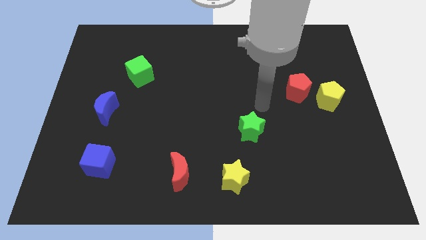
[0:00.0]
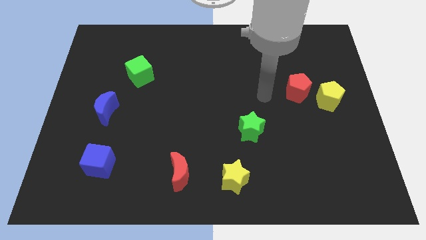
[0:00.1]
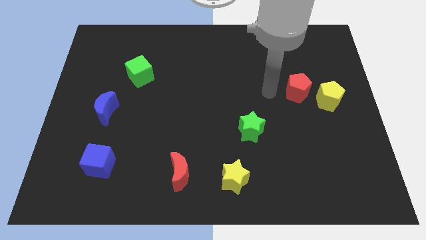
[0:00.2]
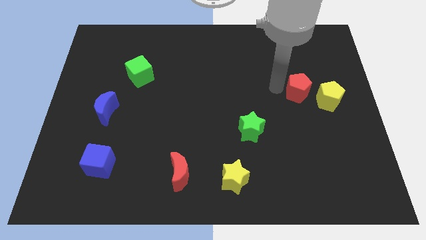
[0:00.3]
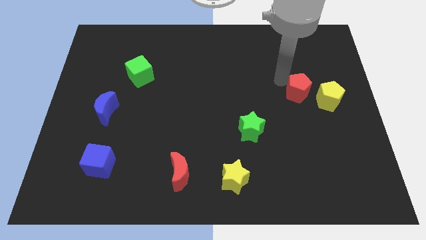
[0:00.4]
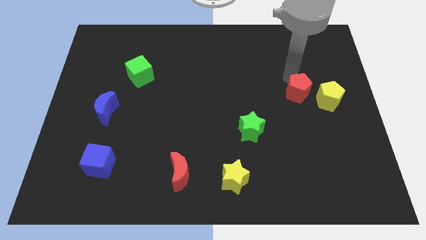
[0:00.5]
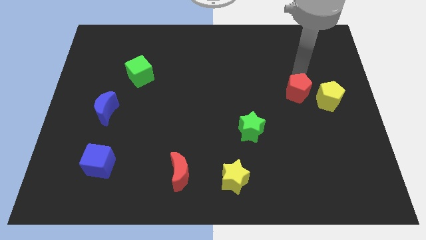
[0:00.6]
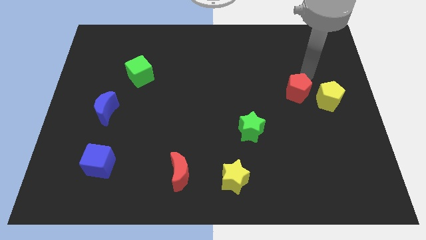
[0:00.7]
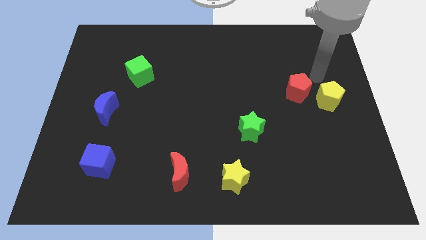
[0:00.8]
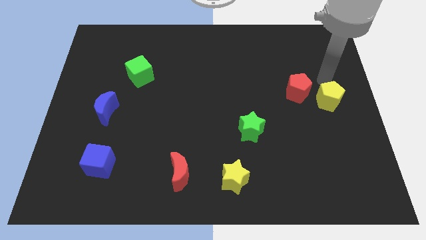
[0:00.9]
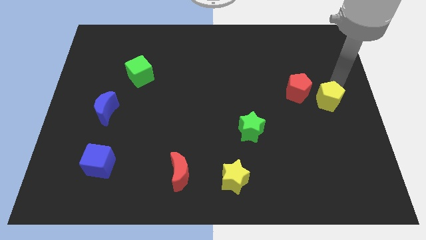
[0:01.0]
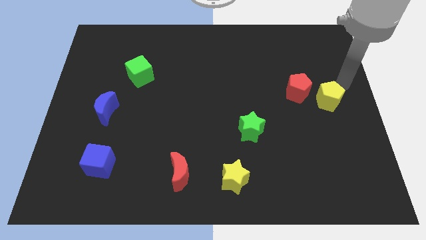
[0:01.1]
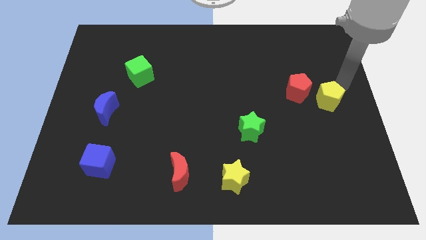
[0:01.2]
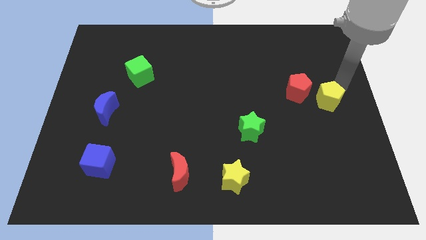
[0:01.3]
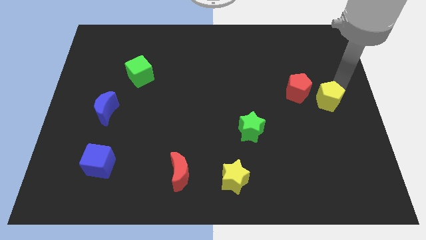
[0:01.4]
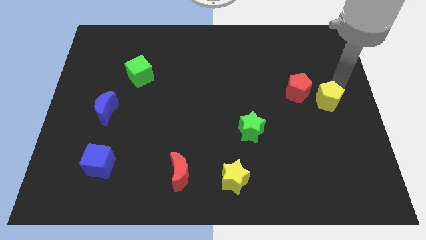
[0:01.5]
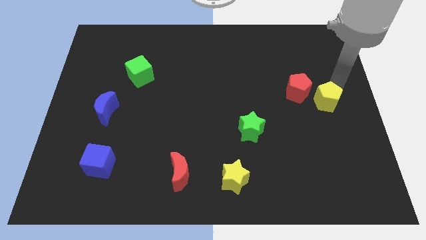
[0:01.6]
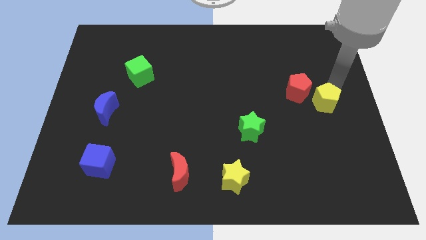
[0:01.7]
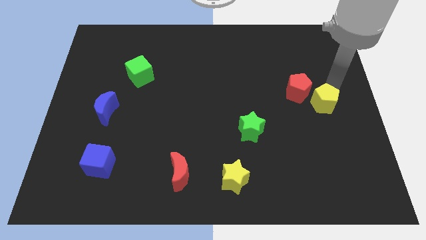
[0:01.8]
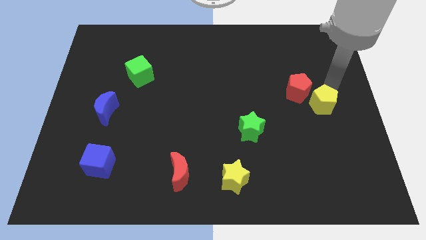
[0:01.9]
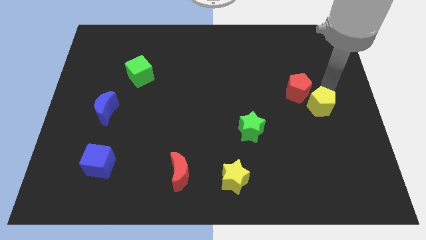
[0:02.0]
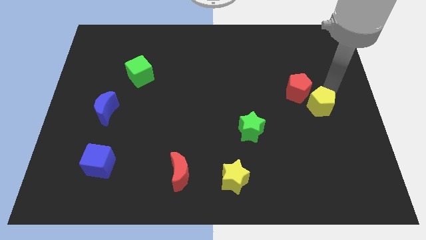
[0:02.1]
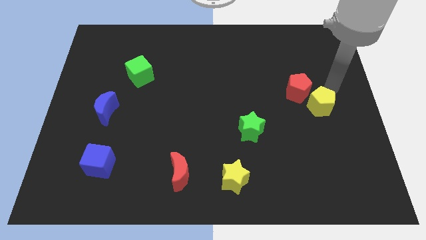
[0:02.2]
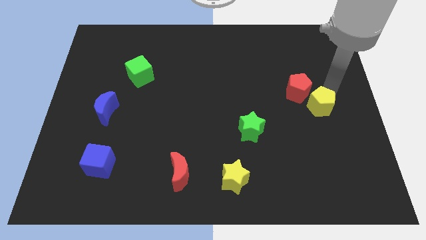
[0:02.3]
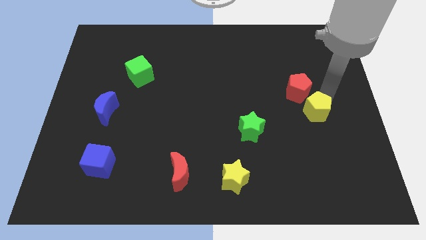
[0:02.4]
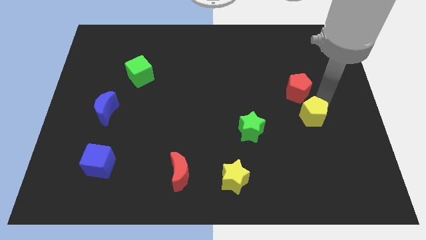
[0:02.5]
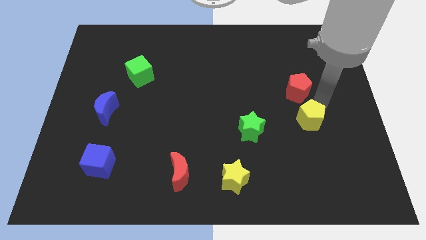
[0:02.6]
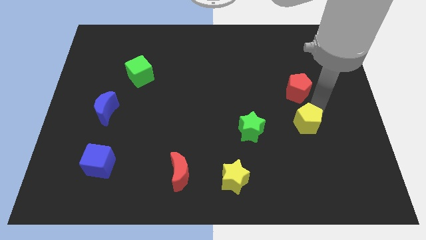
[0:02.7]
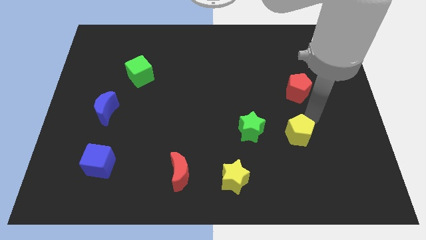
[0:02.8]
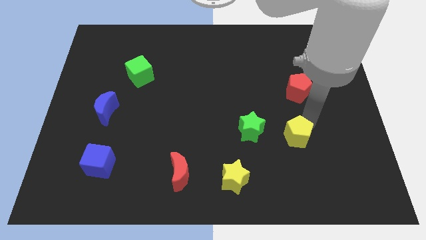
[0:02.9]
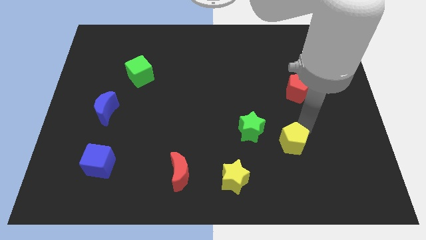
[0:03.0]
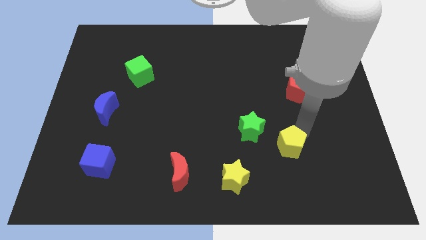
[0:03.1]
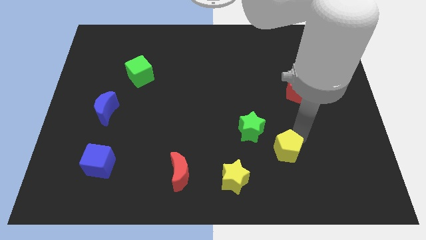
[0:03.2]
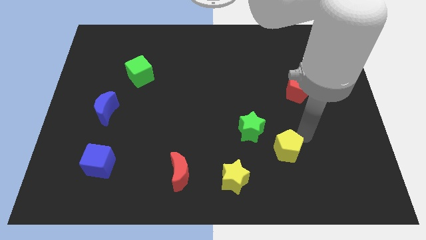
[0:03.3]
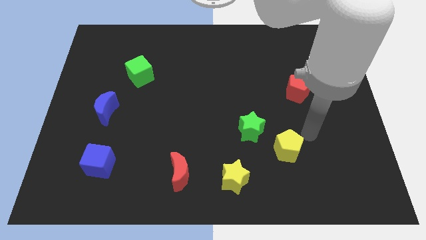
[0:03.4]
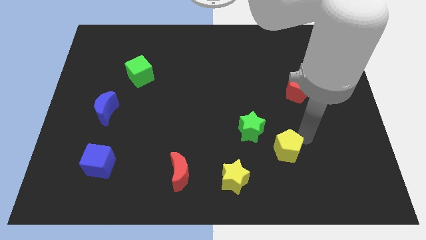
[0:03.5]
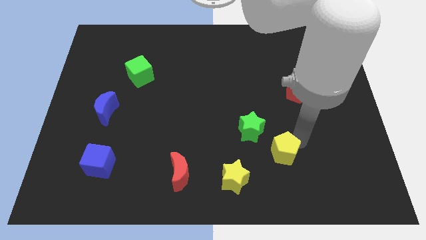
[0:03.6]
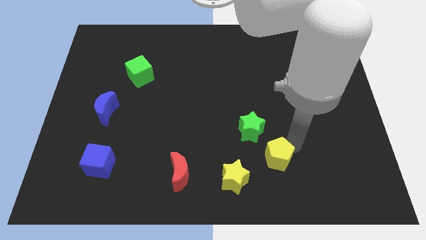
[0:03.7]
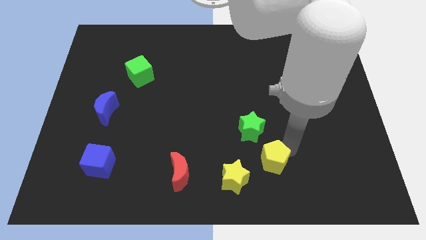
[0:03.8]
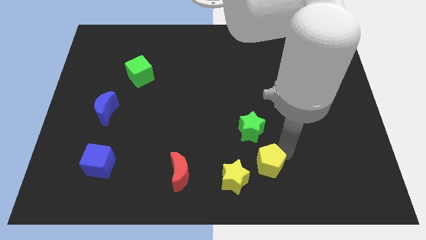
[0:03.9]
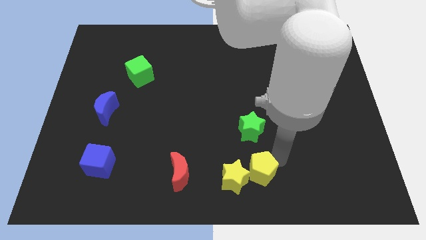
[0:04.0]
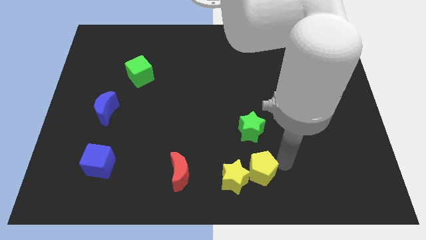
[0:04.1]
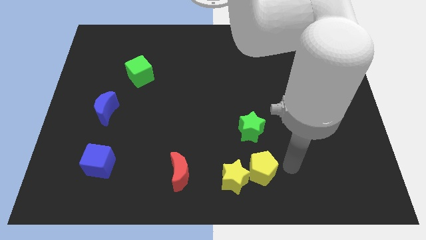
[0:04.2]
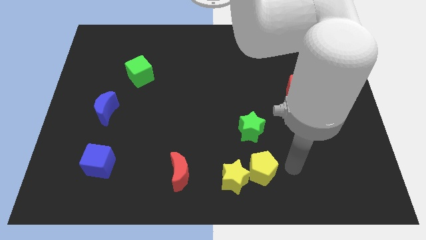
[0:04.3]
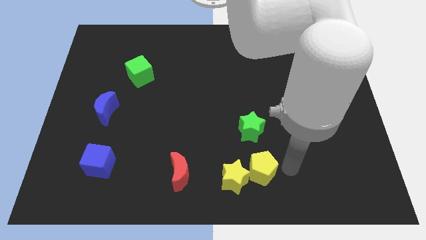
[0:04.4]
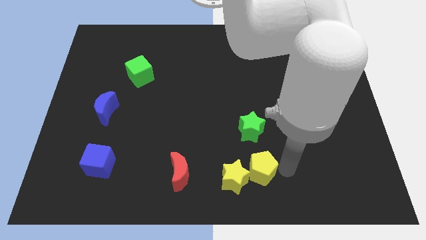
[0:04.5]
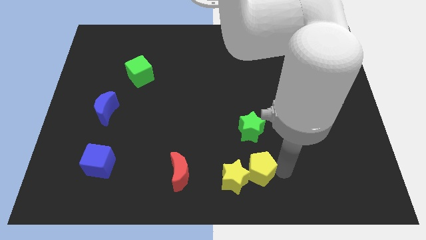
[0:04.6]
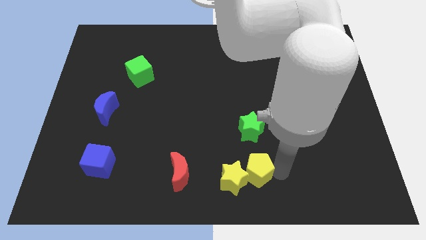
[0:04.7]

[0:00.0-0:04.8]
slide the yellow pentagon to the right of the red moon

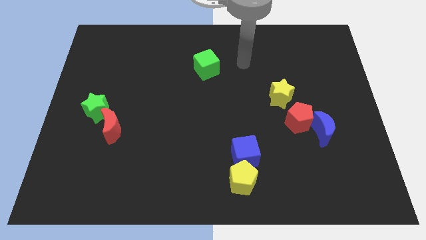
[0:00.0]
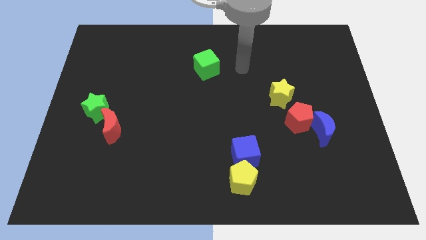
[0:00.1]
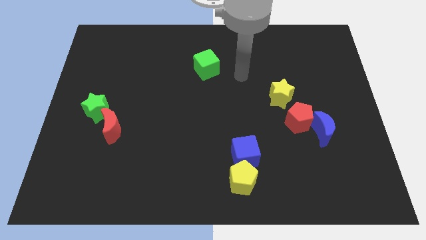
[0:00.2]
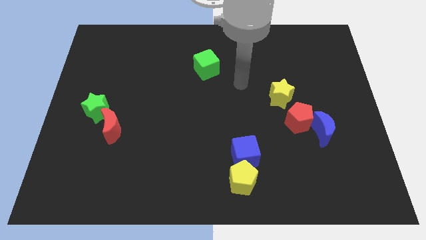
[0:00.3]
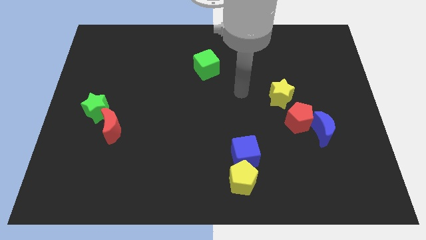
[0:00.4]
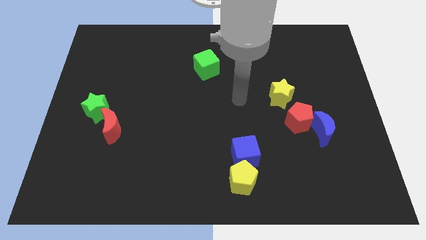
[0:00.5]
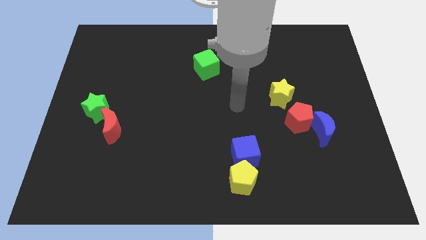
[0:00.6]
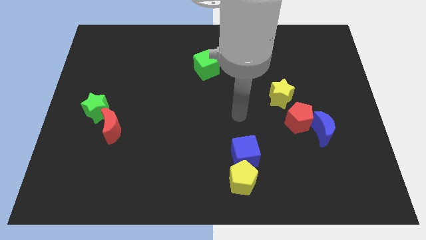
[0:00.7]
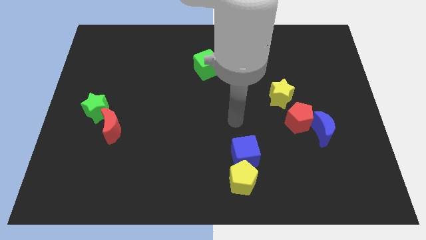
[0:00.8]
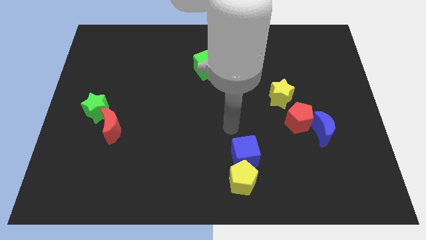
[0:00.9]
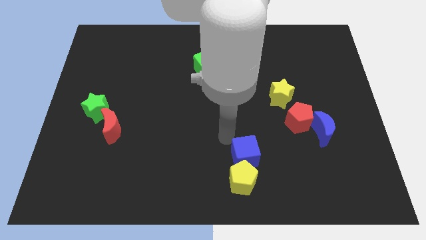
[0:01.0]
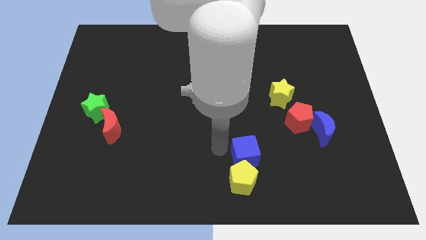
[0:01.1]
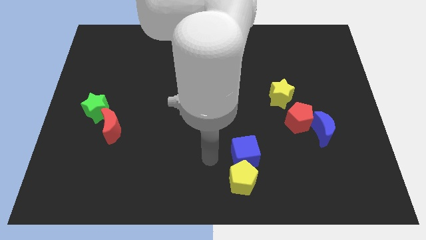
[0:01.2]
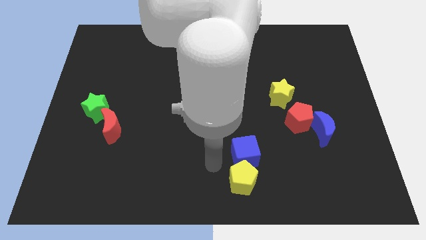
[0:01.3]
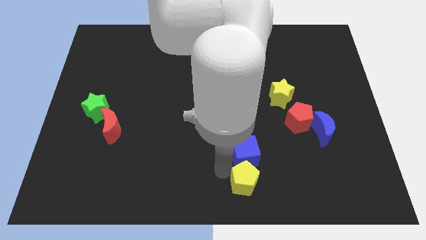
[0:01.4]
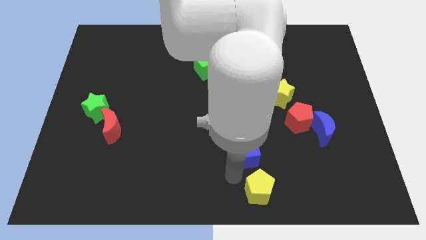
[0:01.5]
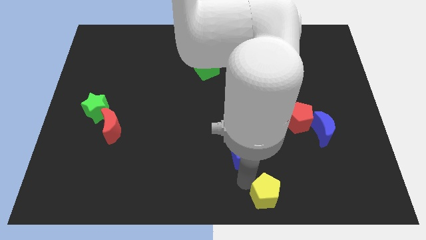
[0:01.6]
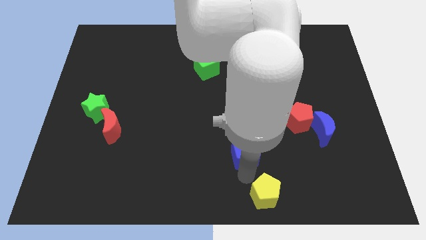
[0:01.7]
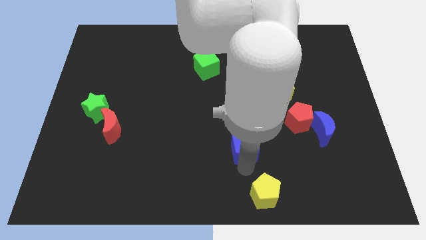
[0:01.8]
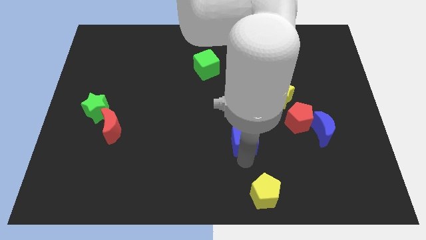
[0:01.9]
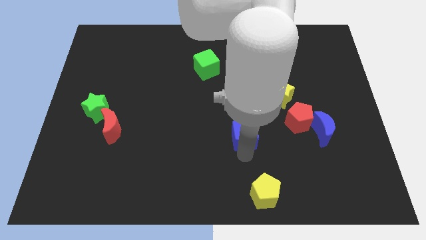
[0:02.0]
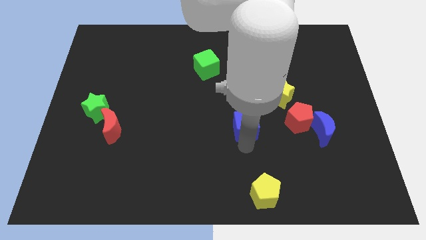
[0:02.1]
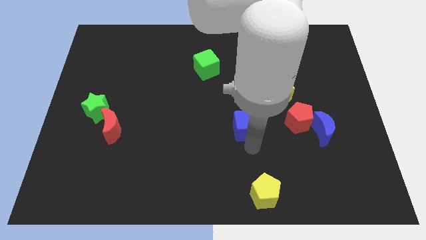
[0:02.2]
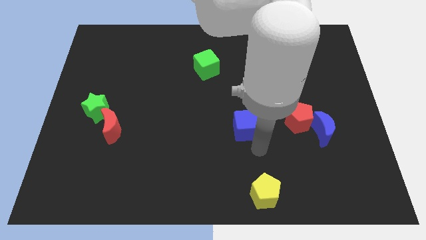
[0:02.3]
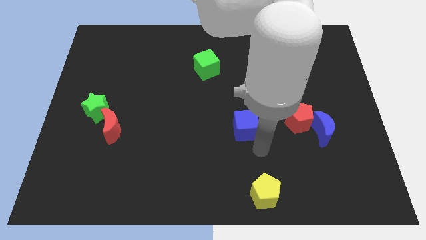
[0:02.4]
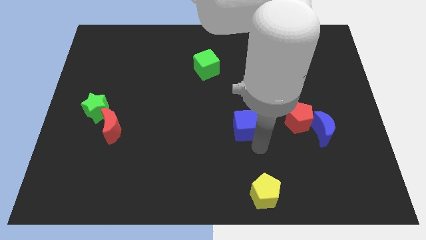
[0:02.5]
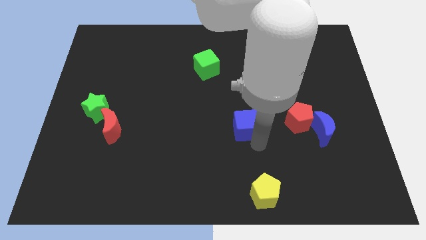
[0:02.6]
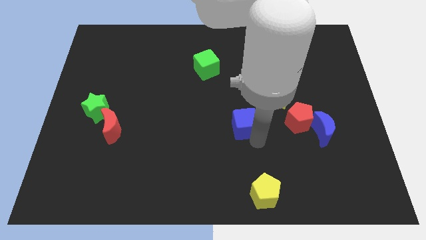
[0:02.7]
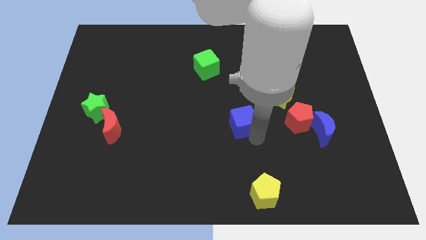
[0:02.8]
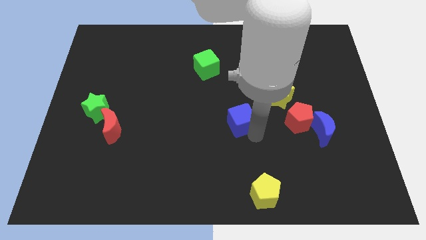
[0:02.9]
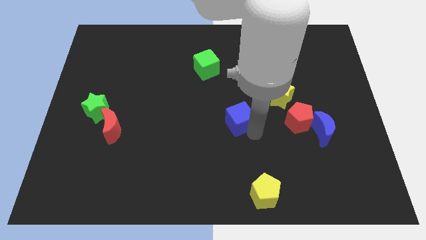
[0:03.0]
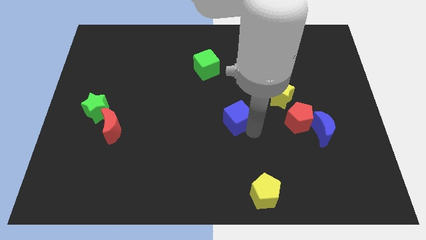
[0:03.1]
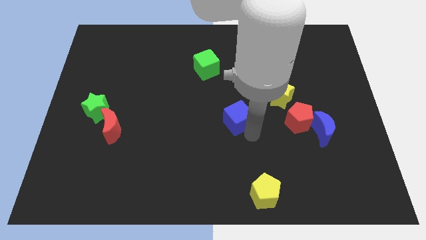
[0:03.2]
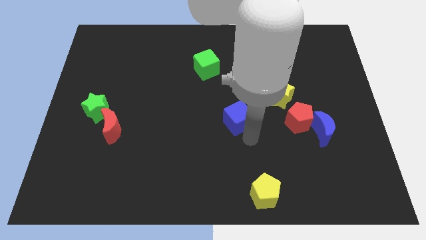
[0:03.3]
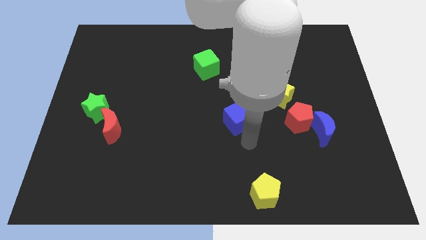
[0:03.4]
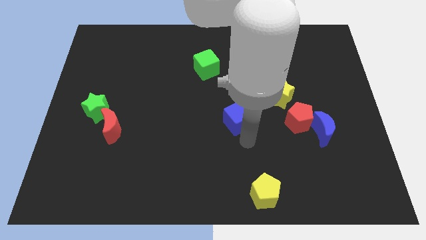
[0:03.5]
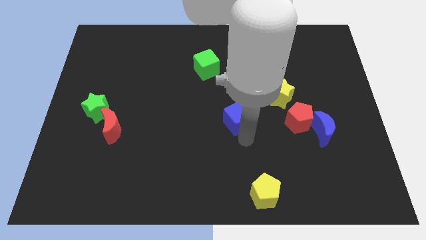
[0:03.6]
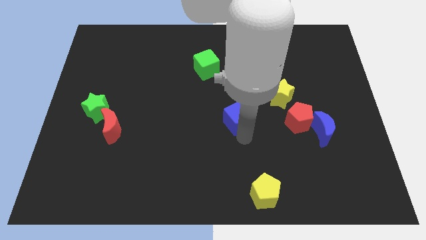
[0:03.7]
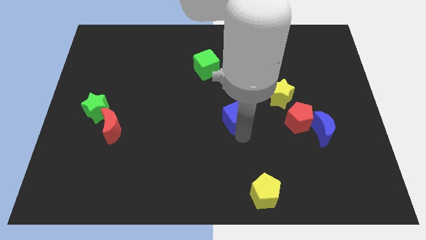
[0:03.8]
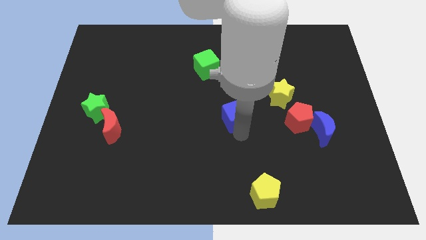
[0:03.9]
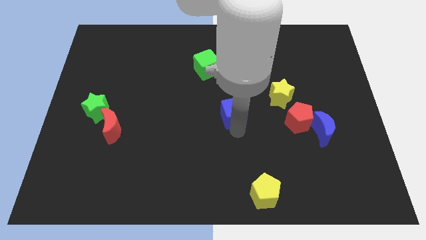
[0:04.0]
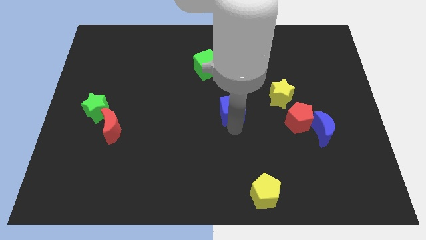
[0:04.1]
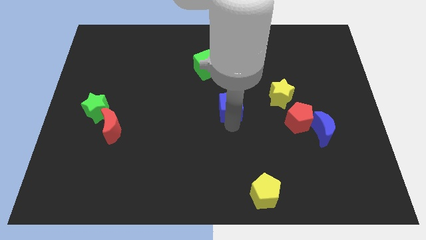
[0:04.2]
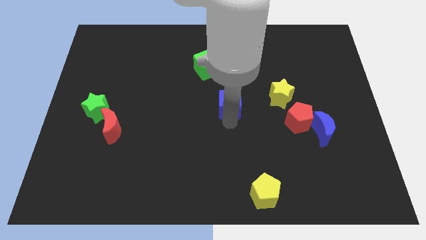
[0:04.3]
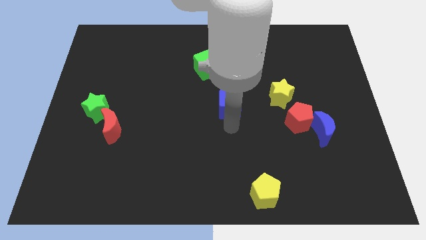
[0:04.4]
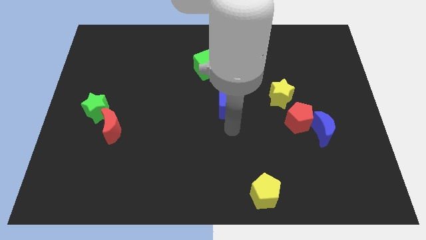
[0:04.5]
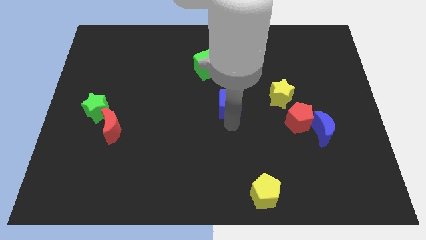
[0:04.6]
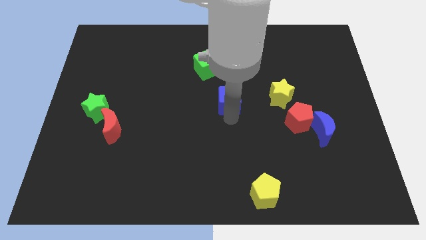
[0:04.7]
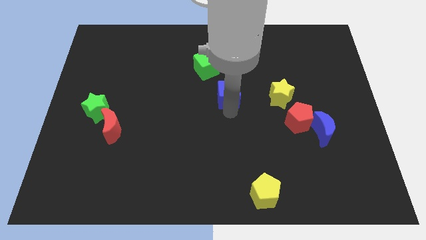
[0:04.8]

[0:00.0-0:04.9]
put the blue cube diagonally down and to the right of the green cube
